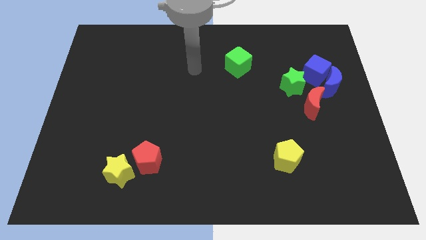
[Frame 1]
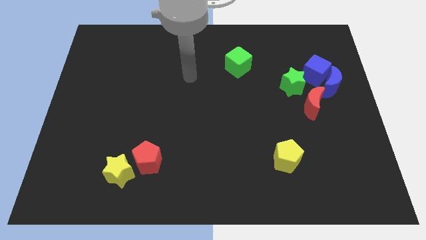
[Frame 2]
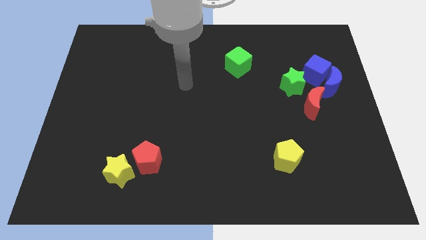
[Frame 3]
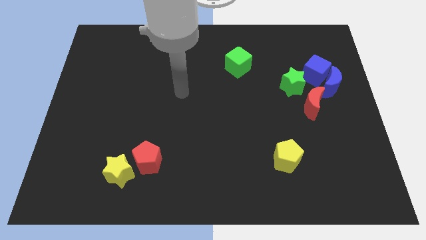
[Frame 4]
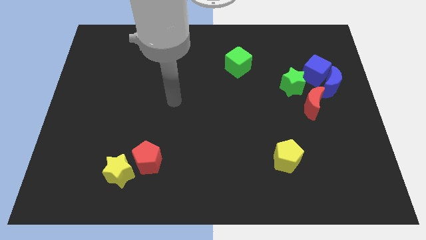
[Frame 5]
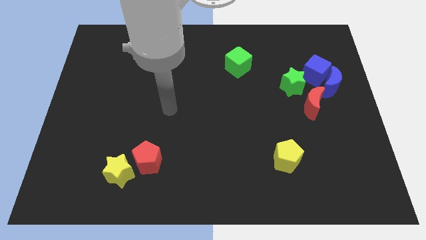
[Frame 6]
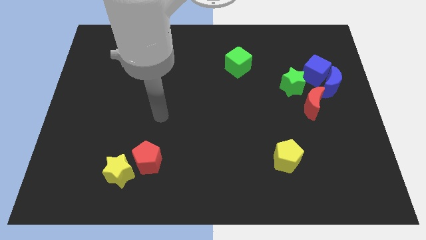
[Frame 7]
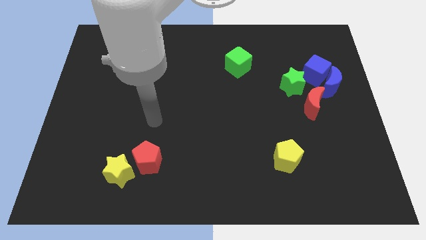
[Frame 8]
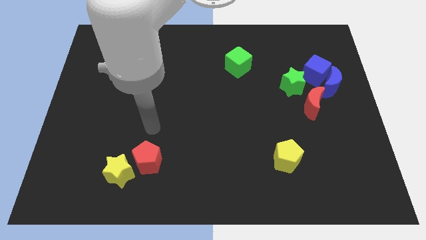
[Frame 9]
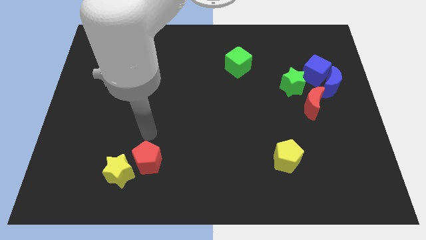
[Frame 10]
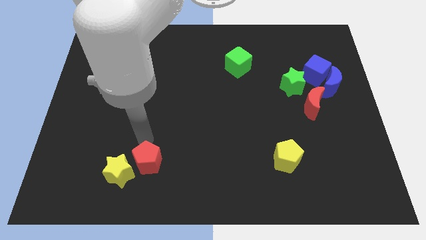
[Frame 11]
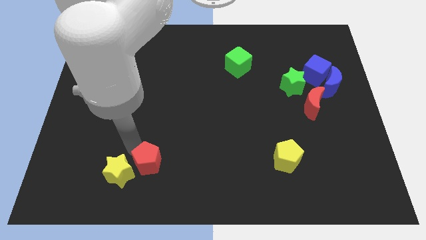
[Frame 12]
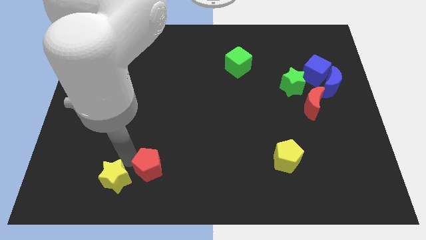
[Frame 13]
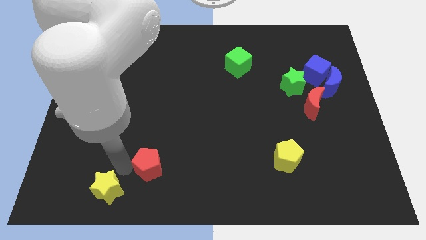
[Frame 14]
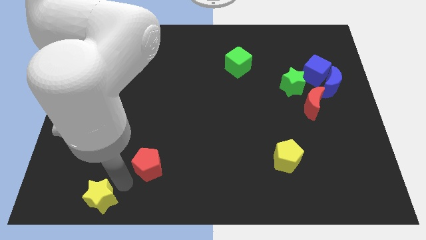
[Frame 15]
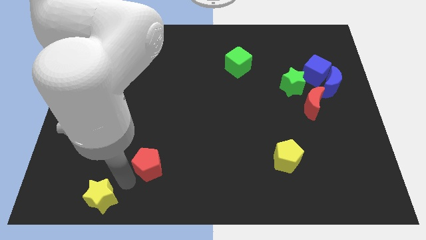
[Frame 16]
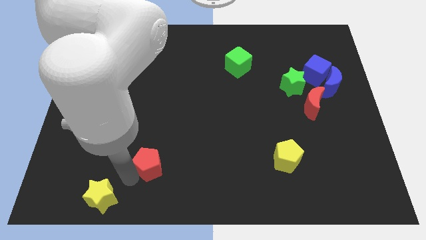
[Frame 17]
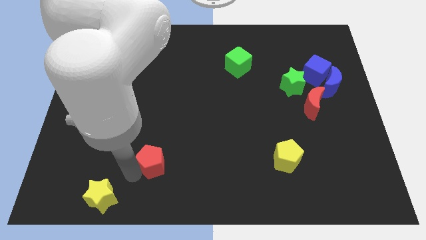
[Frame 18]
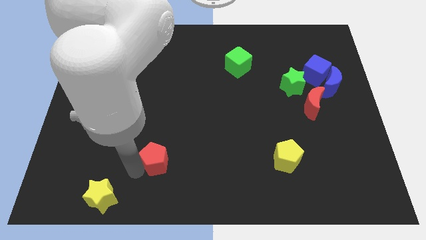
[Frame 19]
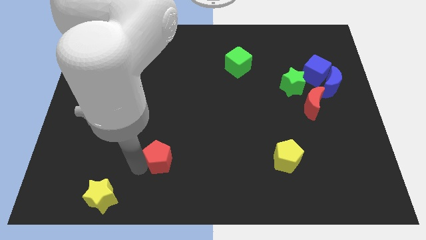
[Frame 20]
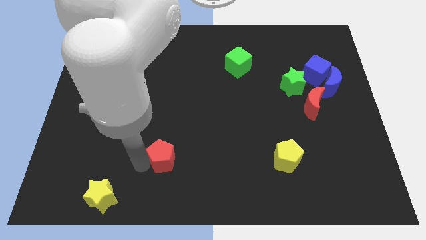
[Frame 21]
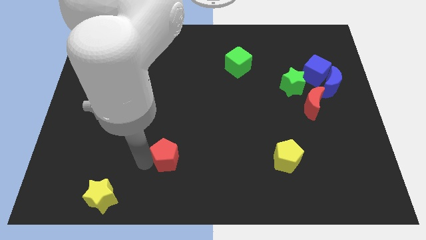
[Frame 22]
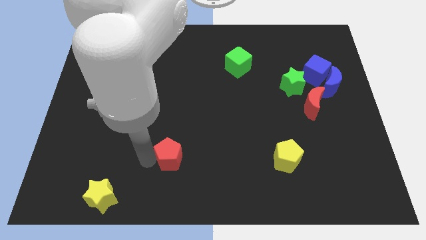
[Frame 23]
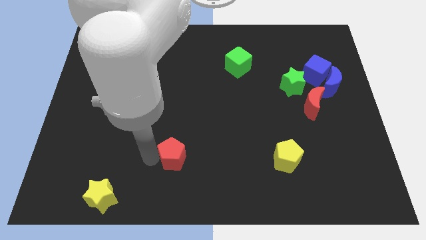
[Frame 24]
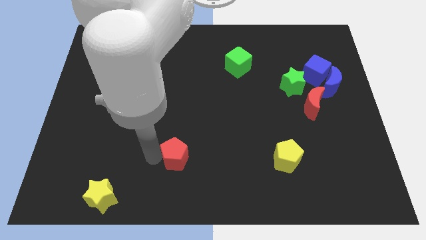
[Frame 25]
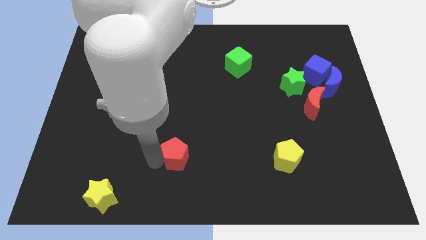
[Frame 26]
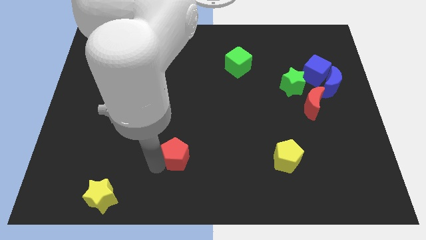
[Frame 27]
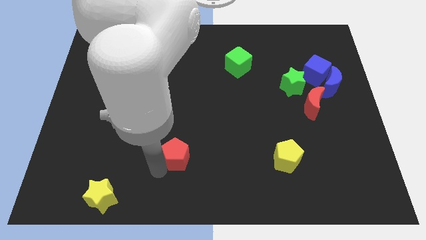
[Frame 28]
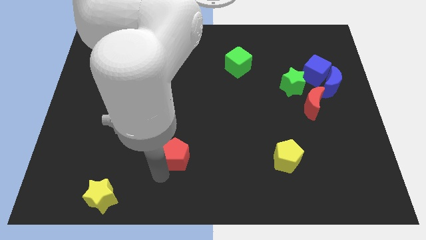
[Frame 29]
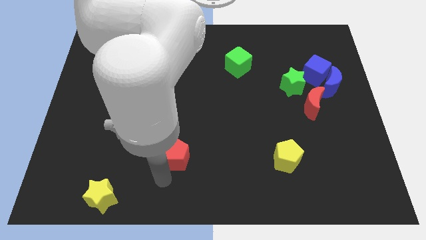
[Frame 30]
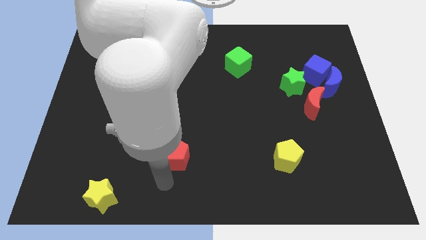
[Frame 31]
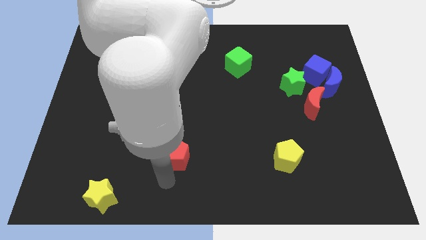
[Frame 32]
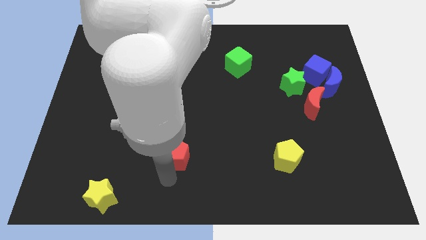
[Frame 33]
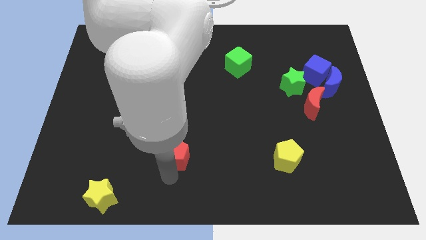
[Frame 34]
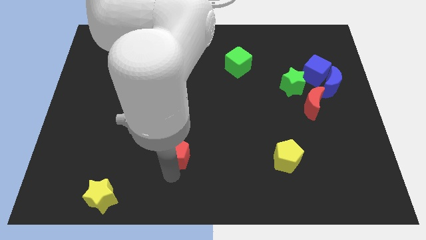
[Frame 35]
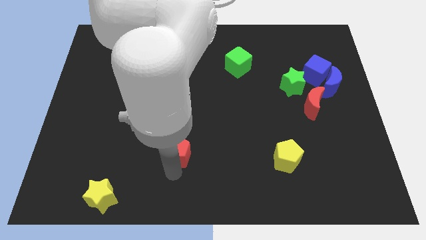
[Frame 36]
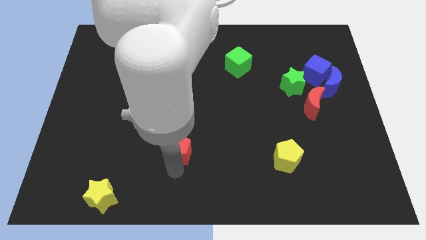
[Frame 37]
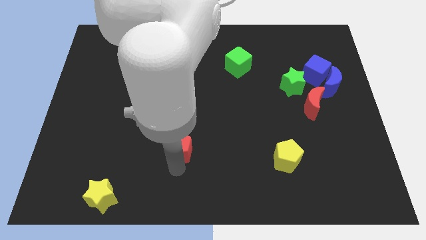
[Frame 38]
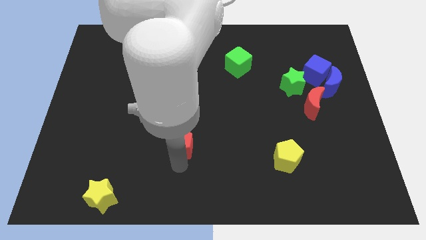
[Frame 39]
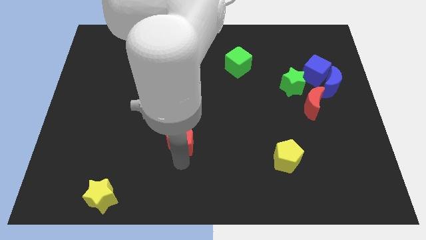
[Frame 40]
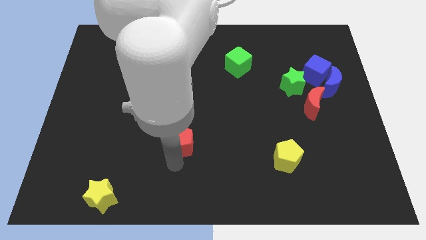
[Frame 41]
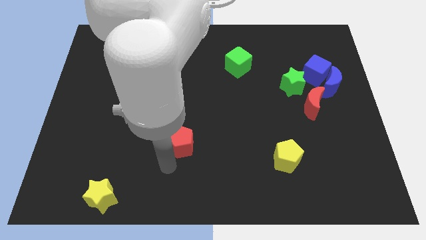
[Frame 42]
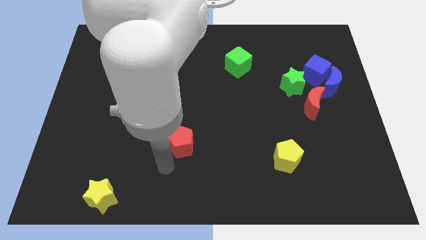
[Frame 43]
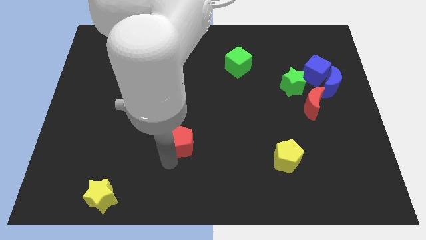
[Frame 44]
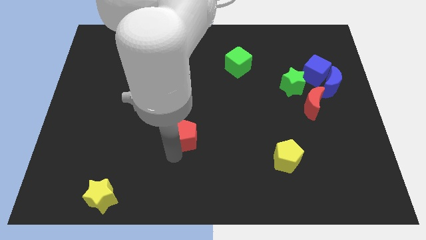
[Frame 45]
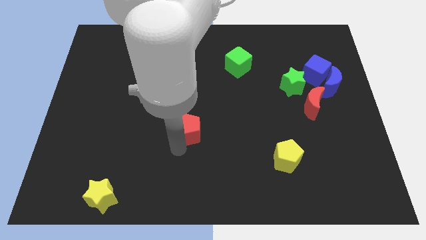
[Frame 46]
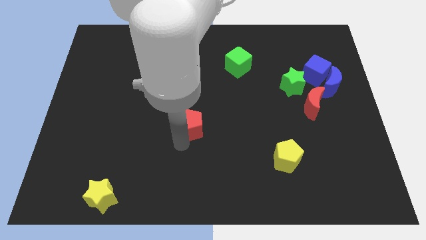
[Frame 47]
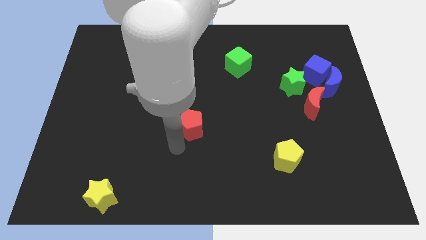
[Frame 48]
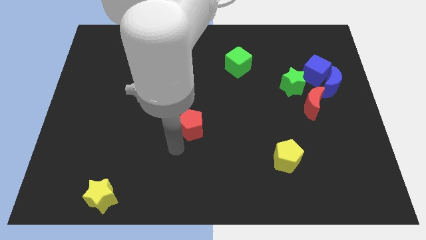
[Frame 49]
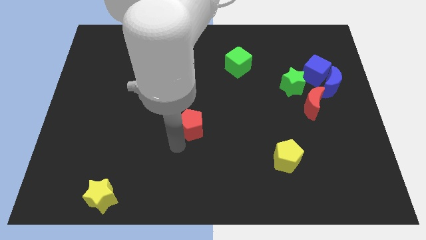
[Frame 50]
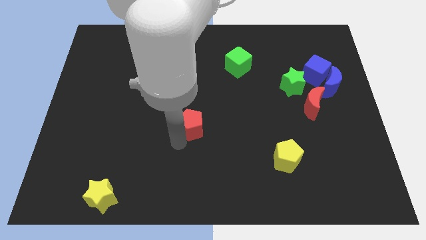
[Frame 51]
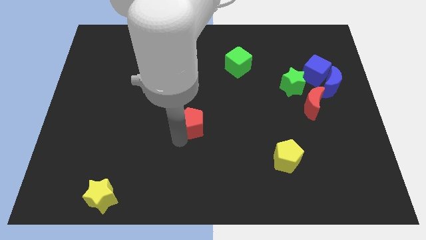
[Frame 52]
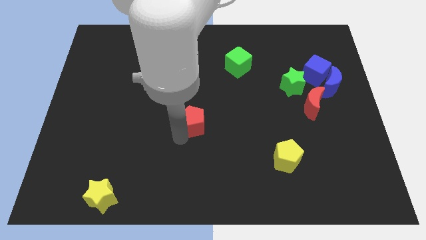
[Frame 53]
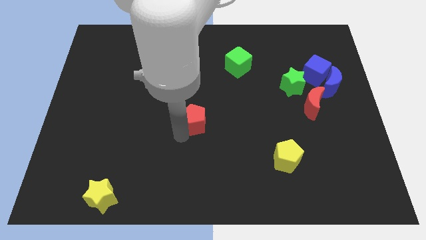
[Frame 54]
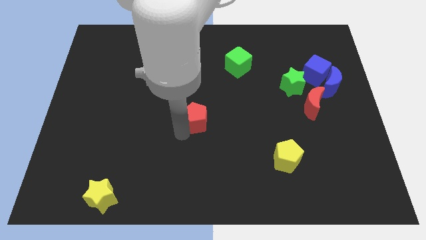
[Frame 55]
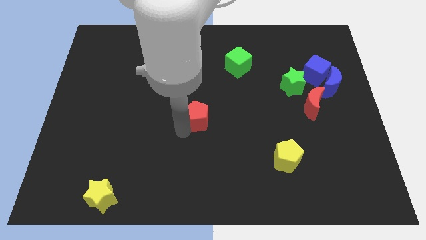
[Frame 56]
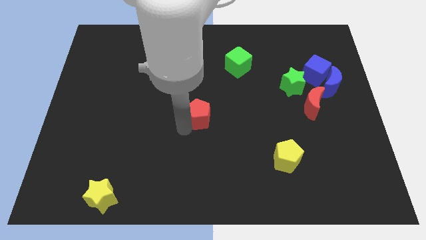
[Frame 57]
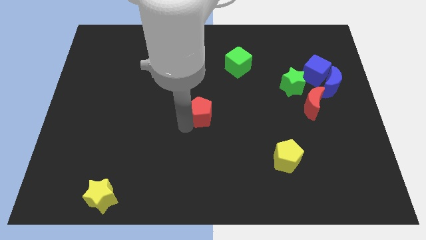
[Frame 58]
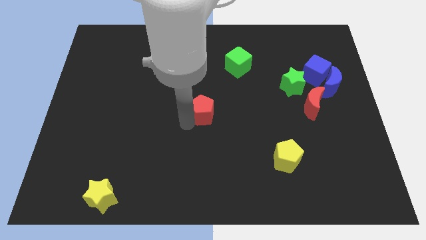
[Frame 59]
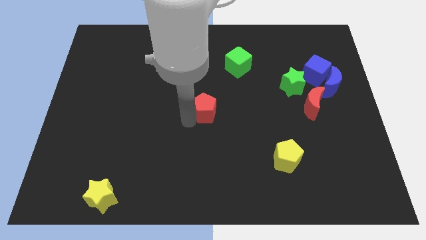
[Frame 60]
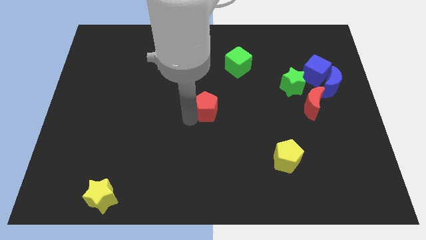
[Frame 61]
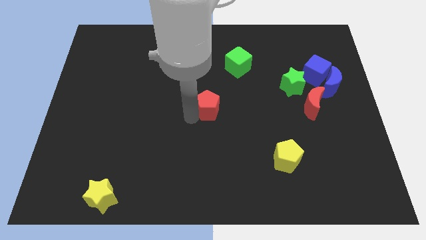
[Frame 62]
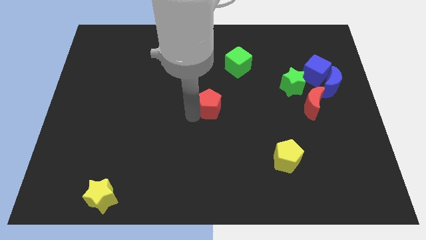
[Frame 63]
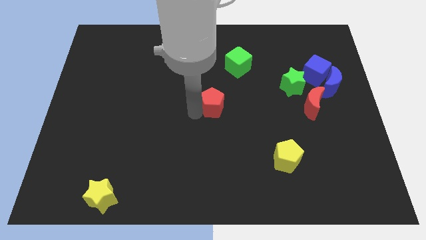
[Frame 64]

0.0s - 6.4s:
slide the red pentagon up and right diagonally

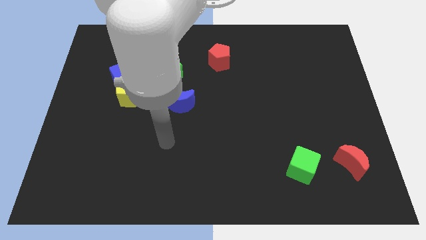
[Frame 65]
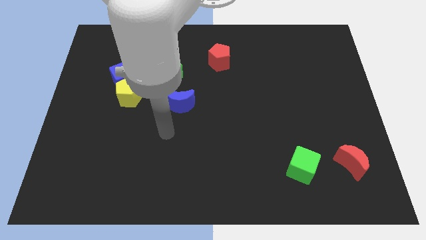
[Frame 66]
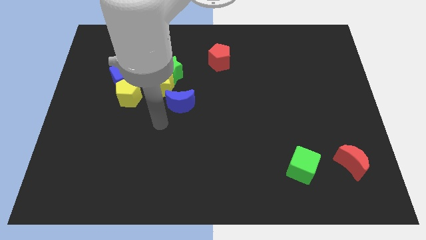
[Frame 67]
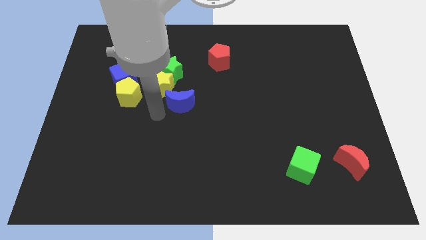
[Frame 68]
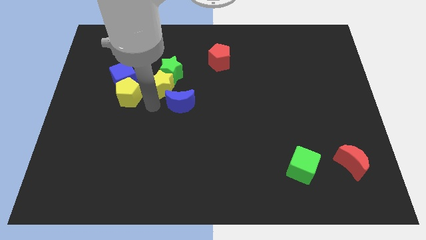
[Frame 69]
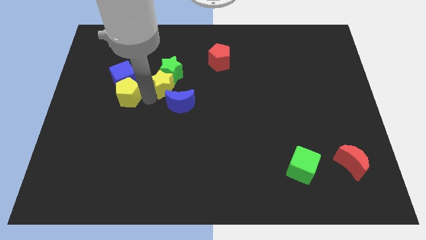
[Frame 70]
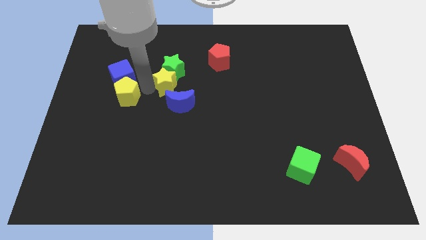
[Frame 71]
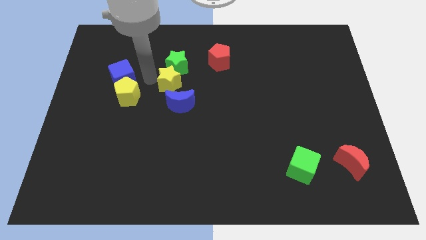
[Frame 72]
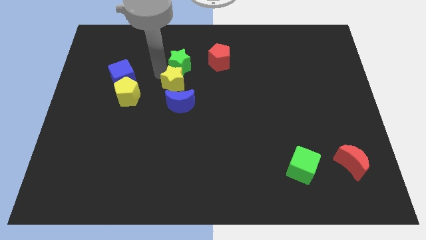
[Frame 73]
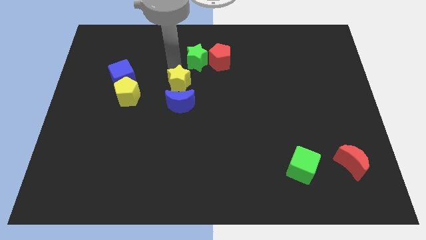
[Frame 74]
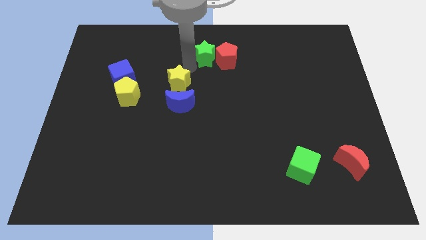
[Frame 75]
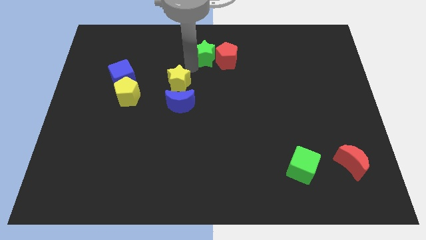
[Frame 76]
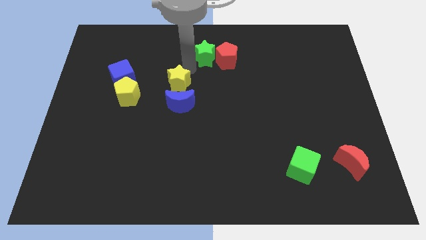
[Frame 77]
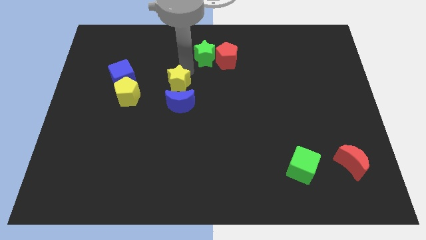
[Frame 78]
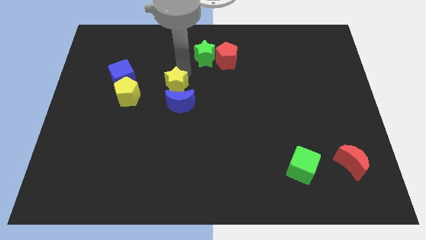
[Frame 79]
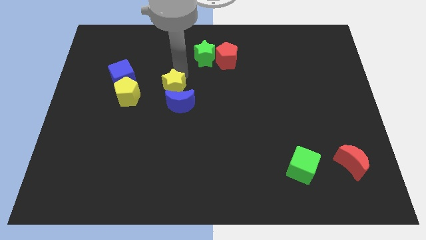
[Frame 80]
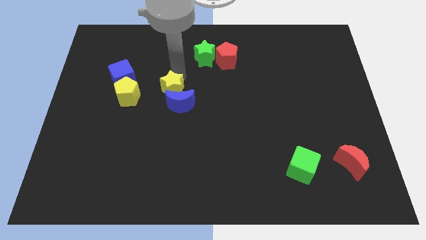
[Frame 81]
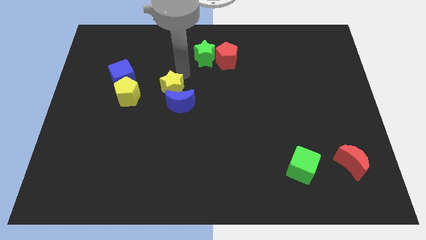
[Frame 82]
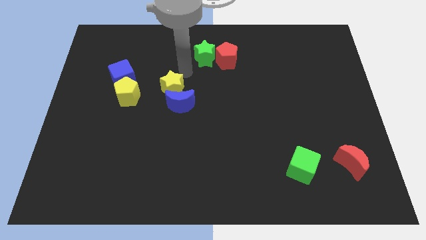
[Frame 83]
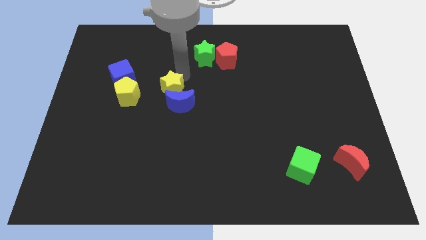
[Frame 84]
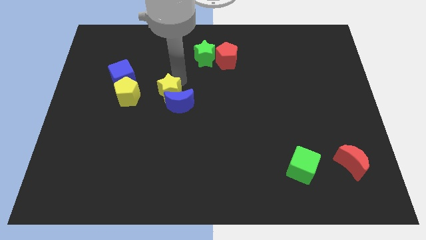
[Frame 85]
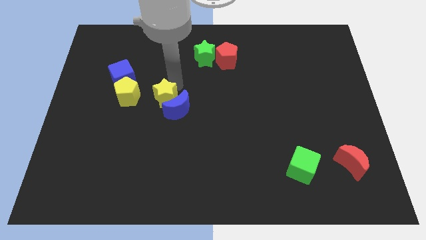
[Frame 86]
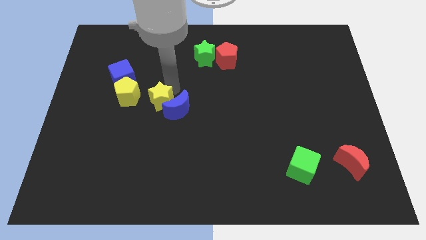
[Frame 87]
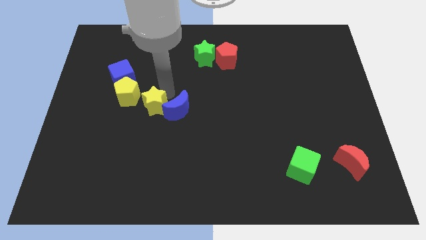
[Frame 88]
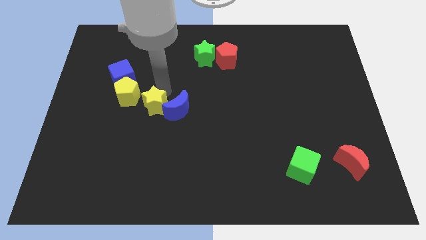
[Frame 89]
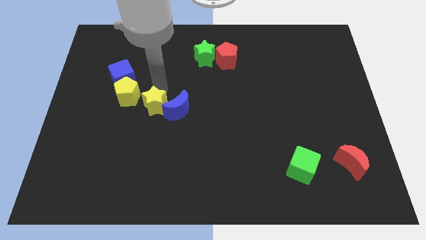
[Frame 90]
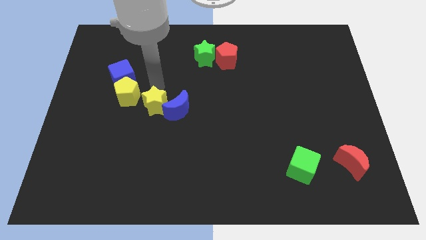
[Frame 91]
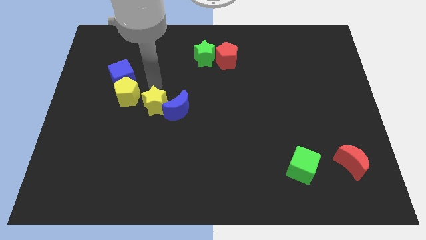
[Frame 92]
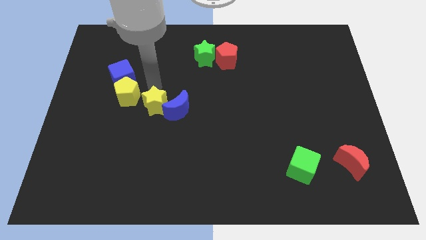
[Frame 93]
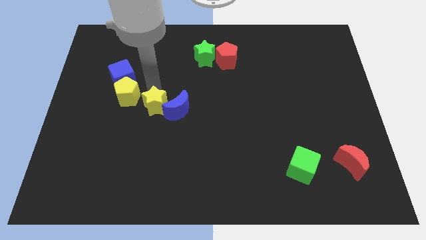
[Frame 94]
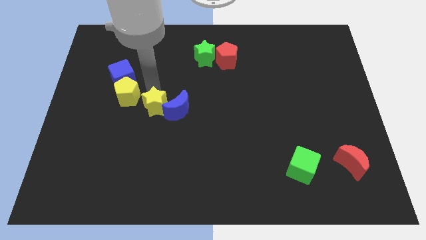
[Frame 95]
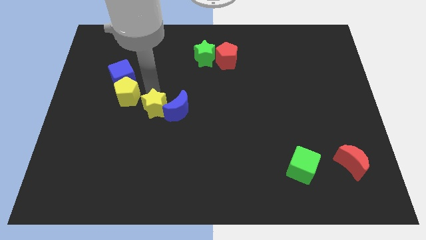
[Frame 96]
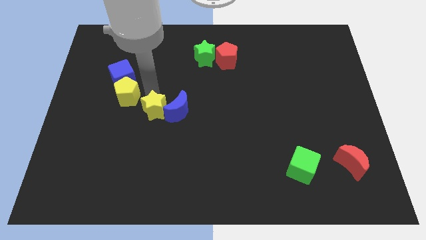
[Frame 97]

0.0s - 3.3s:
move the yellow star down somewhat
